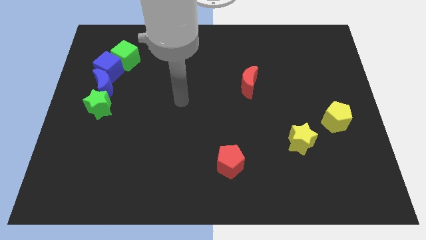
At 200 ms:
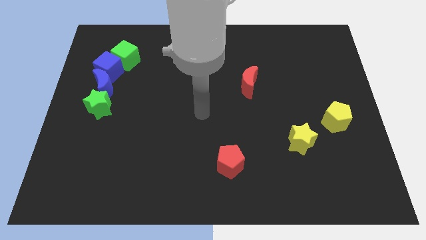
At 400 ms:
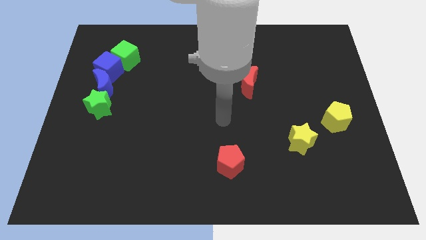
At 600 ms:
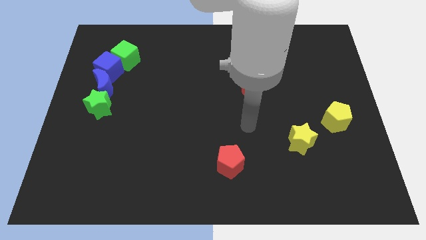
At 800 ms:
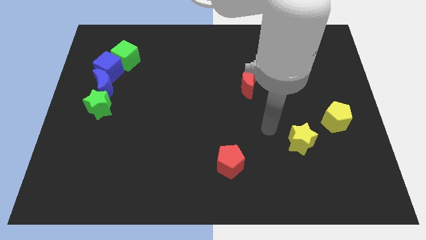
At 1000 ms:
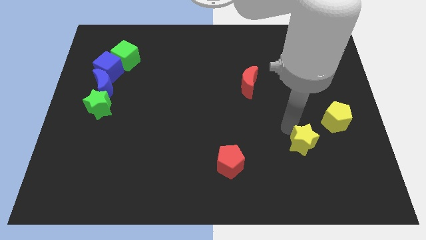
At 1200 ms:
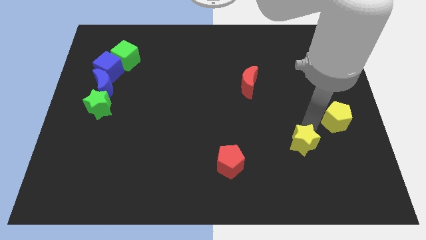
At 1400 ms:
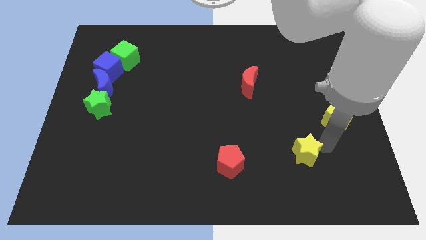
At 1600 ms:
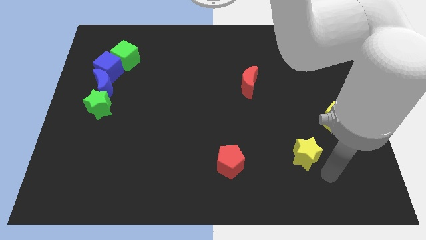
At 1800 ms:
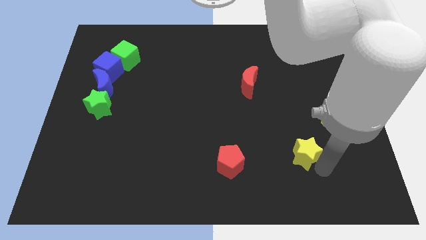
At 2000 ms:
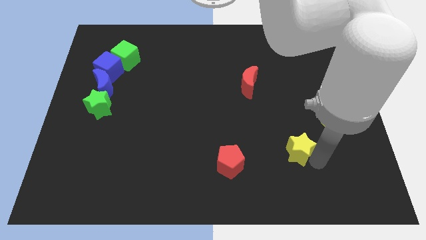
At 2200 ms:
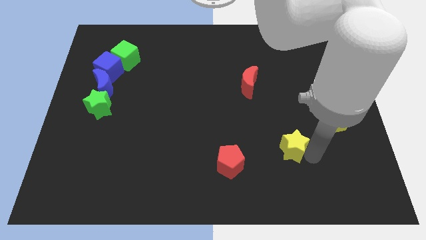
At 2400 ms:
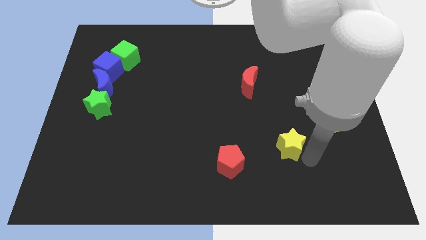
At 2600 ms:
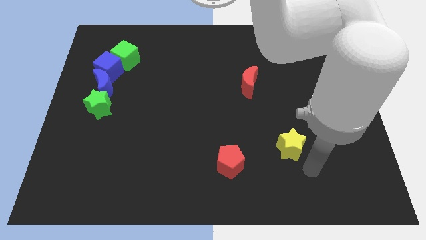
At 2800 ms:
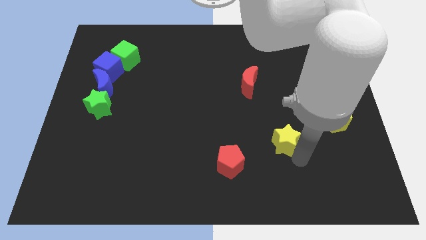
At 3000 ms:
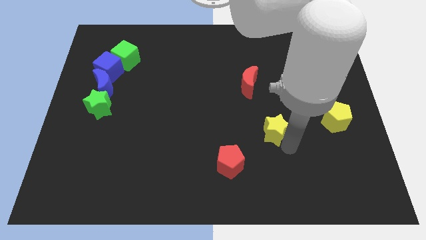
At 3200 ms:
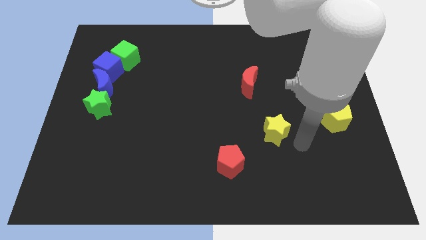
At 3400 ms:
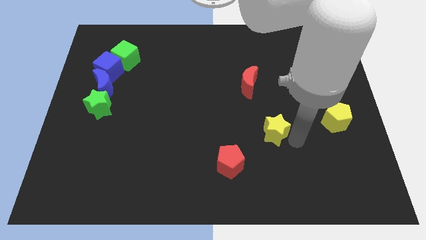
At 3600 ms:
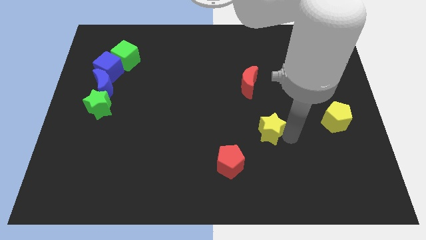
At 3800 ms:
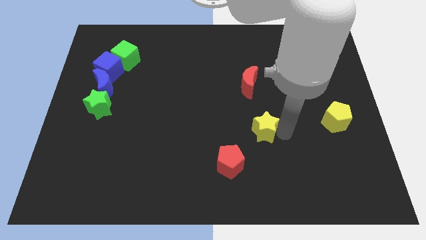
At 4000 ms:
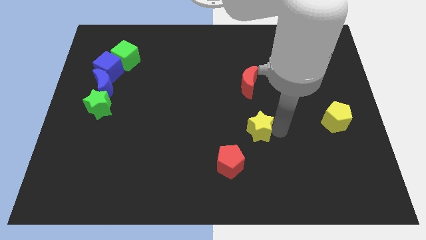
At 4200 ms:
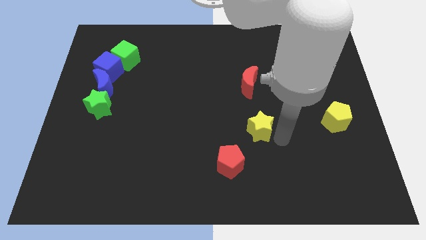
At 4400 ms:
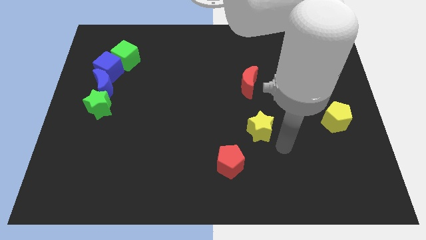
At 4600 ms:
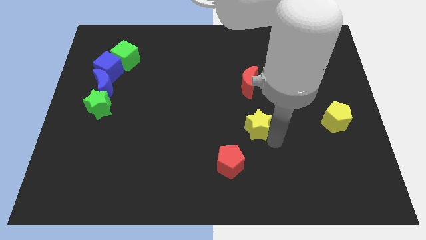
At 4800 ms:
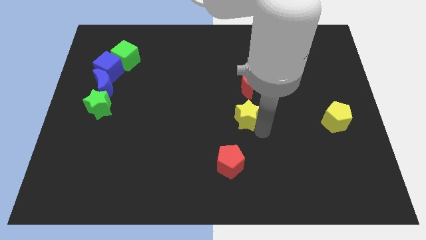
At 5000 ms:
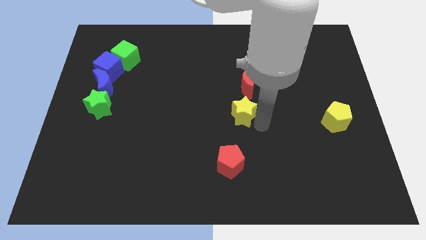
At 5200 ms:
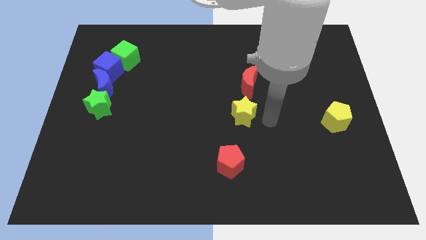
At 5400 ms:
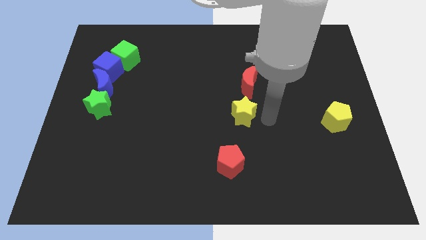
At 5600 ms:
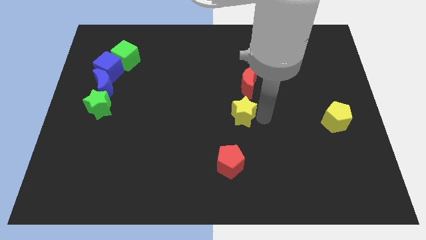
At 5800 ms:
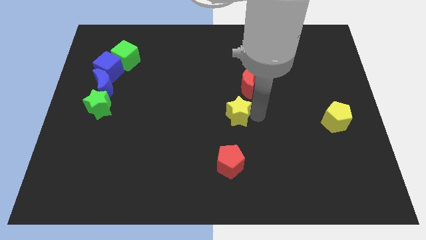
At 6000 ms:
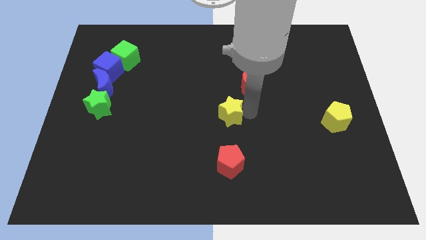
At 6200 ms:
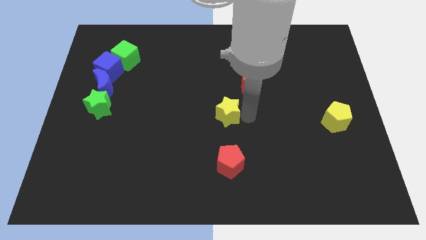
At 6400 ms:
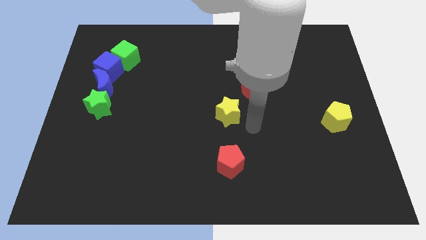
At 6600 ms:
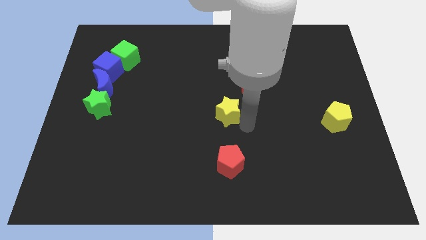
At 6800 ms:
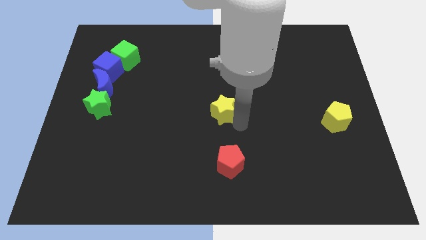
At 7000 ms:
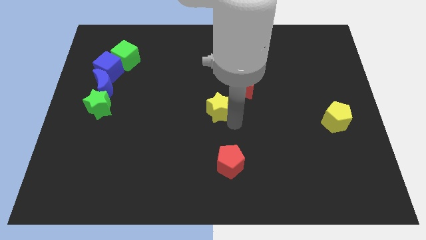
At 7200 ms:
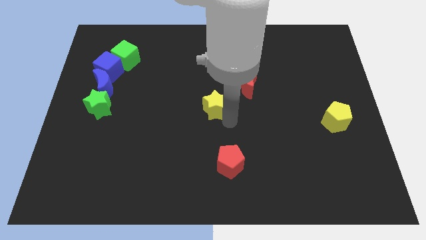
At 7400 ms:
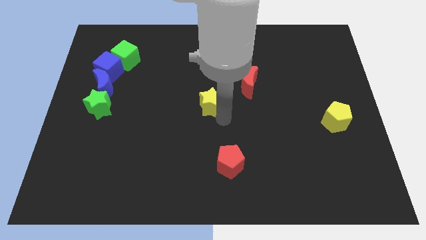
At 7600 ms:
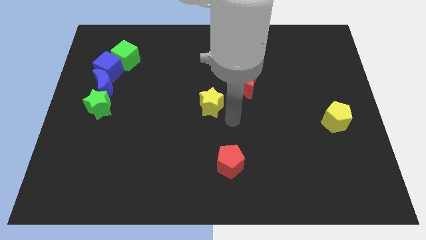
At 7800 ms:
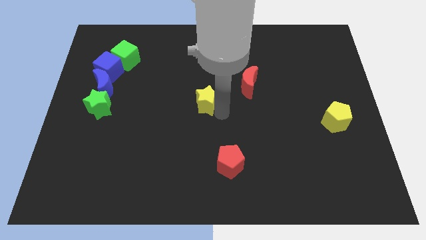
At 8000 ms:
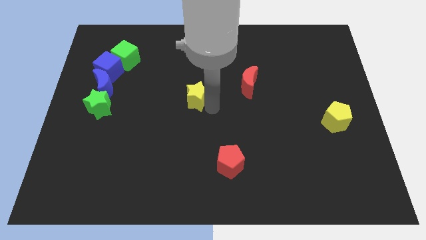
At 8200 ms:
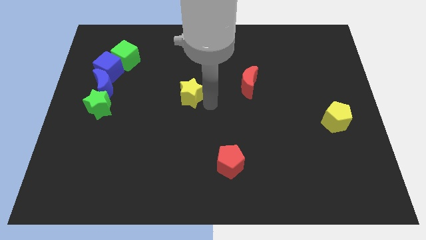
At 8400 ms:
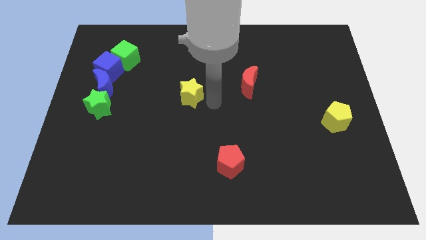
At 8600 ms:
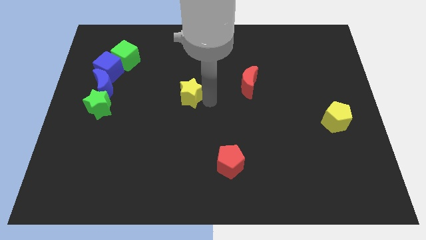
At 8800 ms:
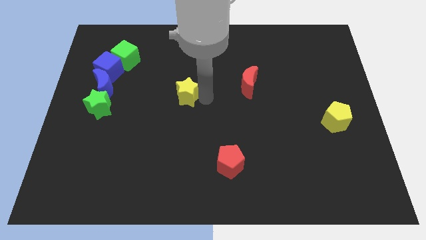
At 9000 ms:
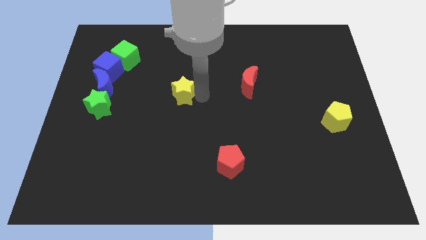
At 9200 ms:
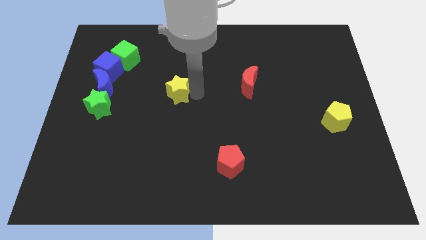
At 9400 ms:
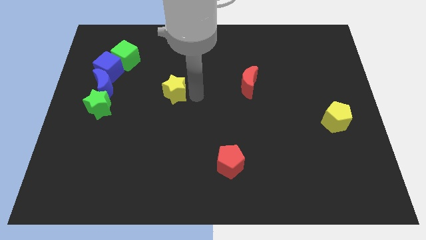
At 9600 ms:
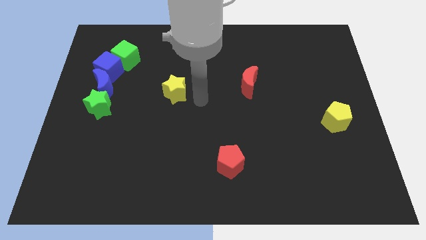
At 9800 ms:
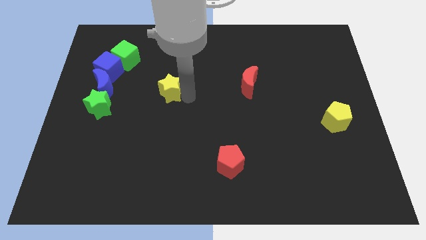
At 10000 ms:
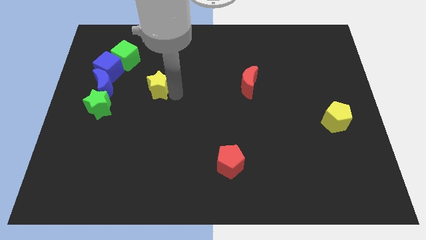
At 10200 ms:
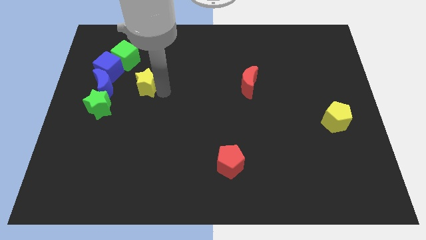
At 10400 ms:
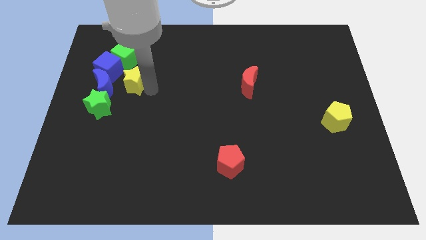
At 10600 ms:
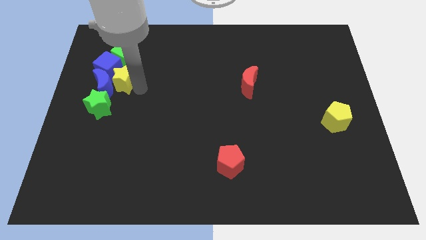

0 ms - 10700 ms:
slide the yellow star close to the blue cube

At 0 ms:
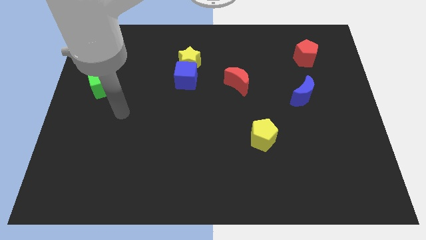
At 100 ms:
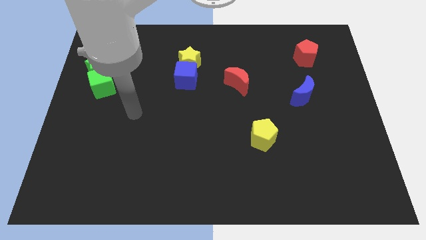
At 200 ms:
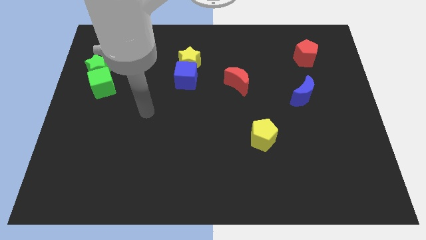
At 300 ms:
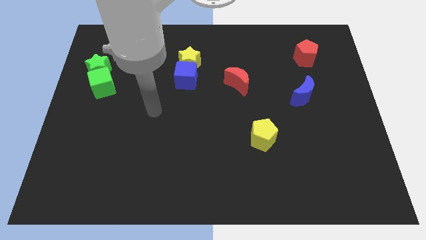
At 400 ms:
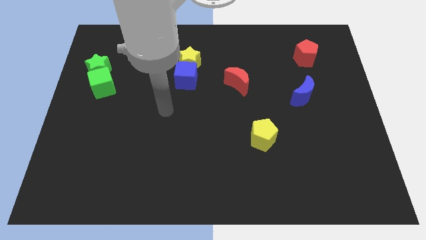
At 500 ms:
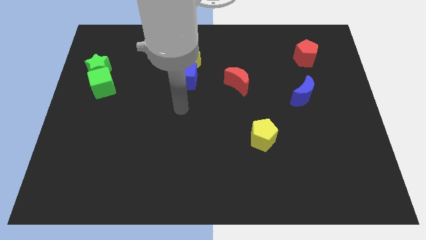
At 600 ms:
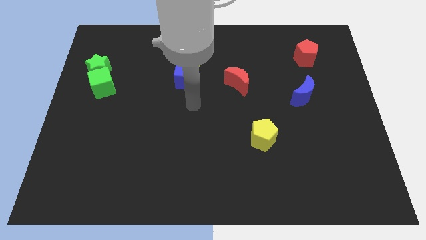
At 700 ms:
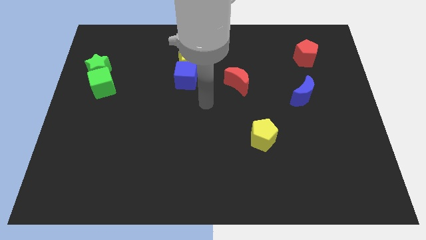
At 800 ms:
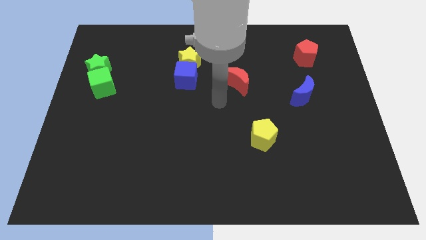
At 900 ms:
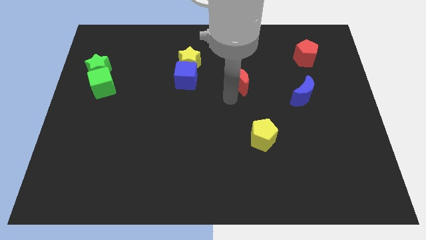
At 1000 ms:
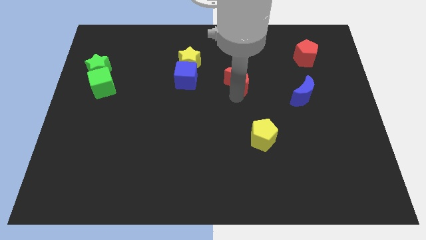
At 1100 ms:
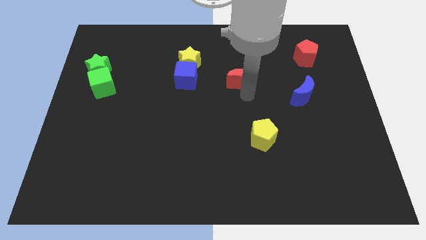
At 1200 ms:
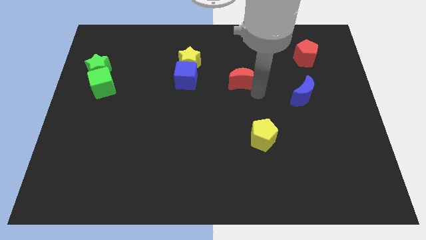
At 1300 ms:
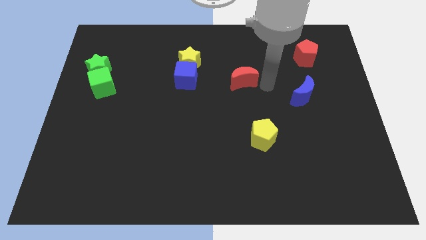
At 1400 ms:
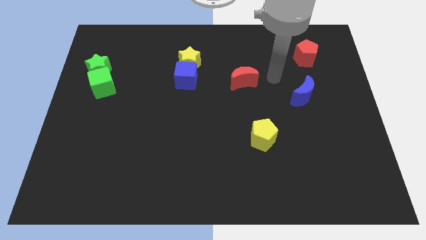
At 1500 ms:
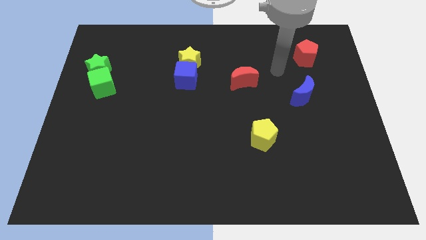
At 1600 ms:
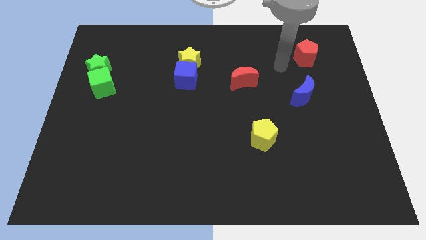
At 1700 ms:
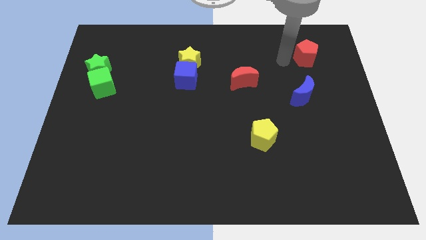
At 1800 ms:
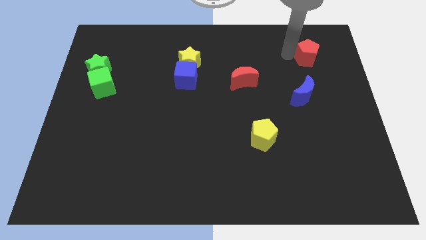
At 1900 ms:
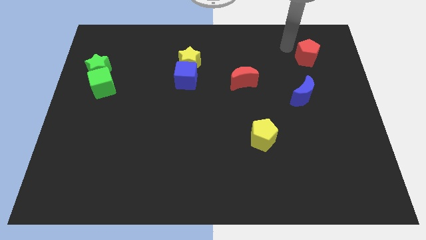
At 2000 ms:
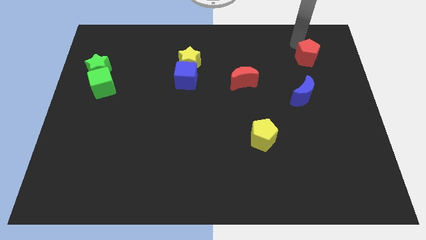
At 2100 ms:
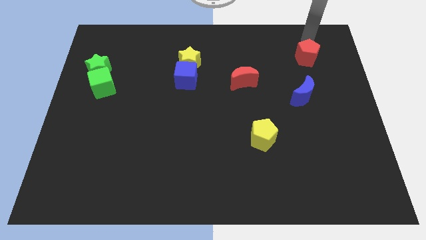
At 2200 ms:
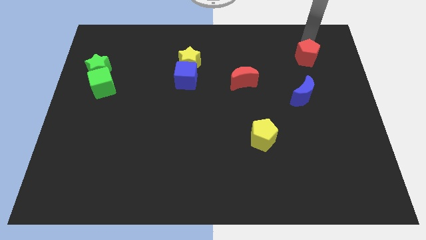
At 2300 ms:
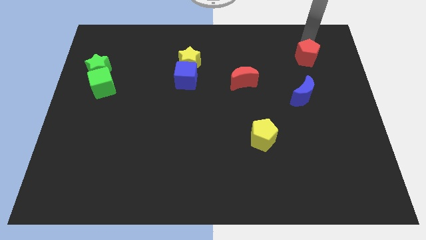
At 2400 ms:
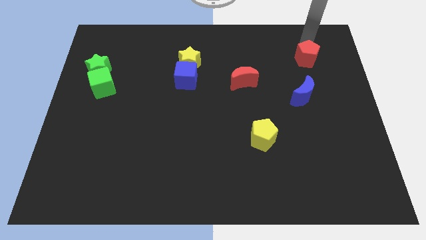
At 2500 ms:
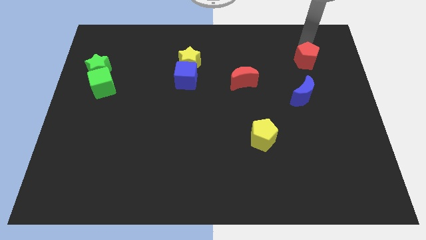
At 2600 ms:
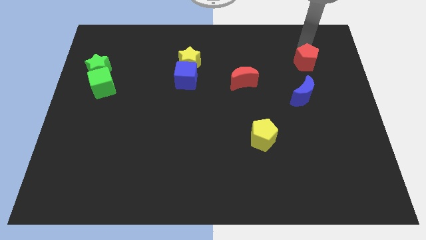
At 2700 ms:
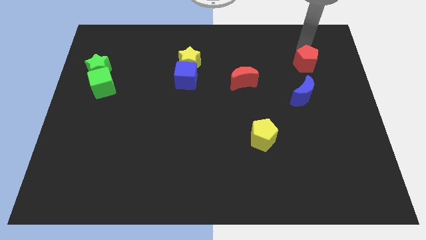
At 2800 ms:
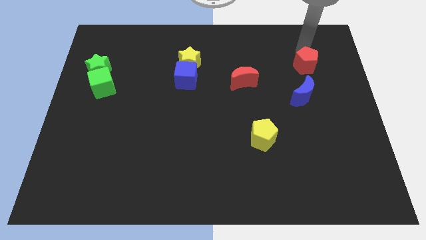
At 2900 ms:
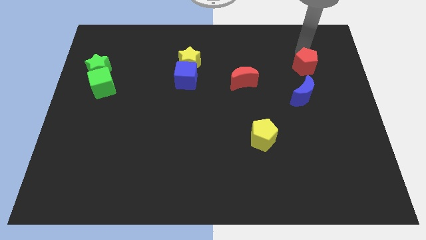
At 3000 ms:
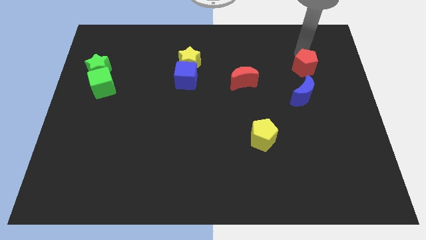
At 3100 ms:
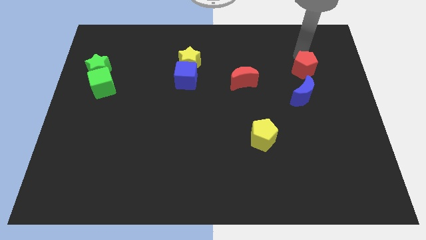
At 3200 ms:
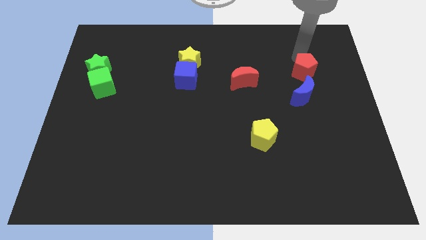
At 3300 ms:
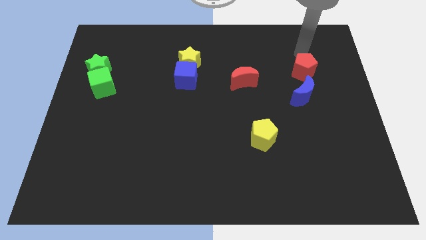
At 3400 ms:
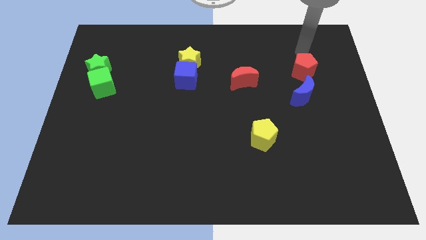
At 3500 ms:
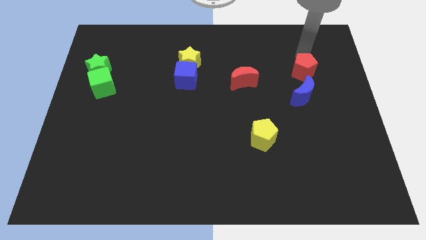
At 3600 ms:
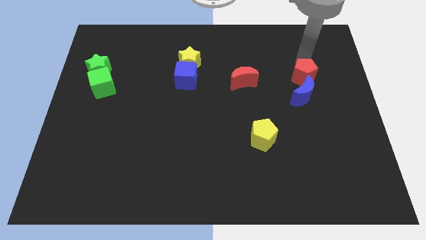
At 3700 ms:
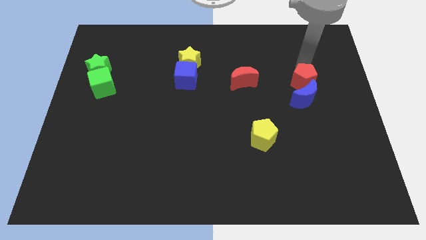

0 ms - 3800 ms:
put the red pentagon towards the blue moon
